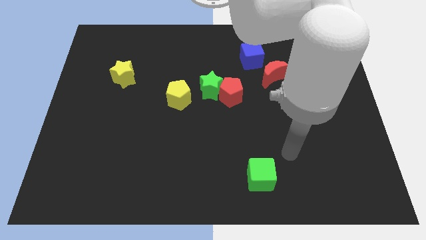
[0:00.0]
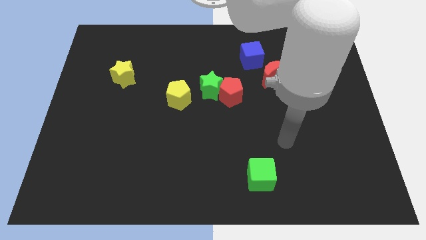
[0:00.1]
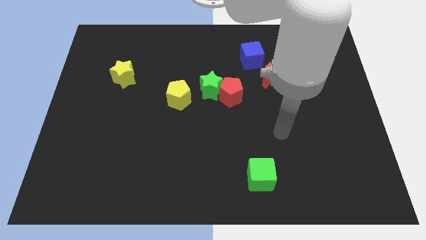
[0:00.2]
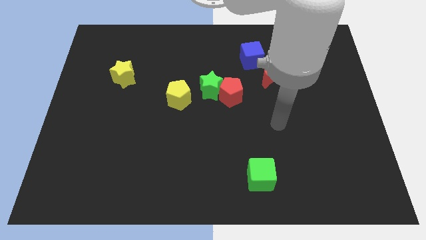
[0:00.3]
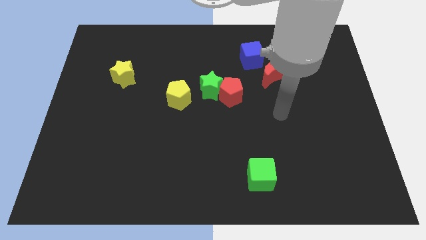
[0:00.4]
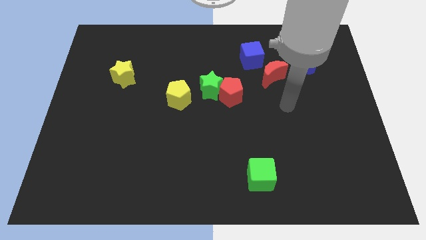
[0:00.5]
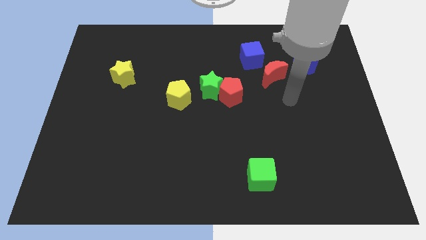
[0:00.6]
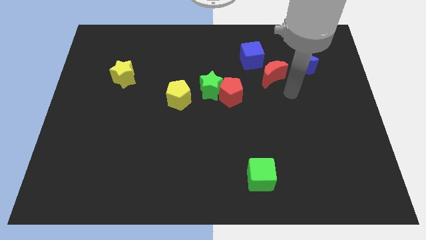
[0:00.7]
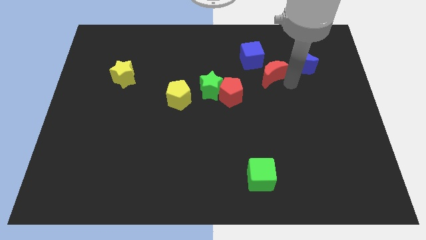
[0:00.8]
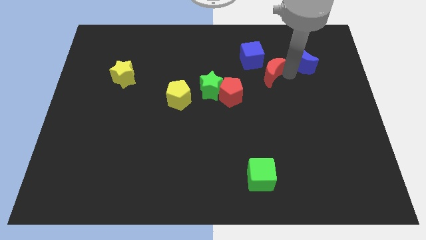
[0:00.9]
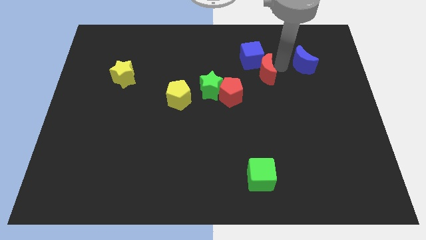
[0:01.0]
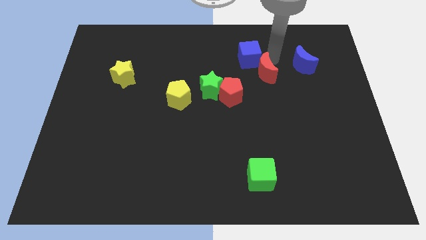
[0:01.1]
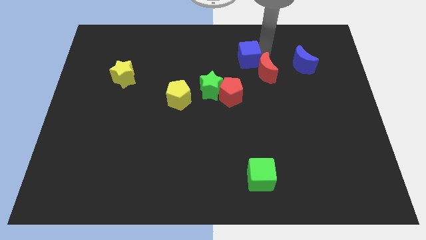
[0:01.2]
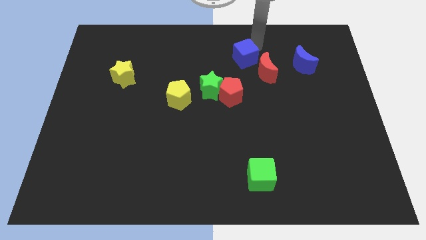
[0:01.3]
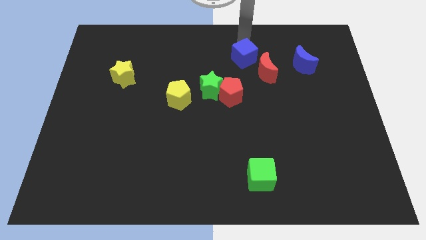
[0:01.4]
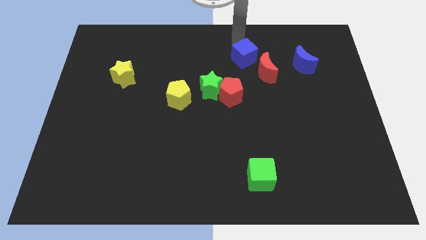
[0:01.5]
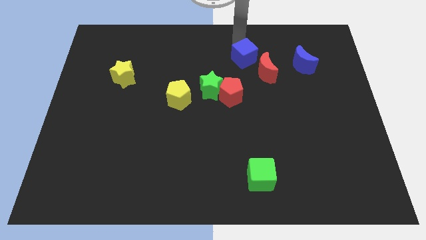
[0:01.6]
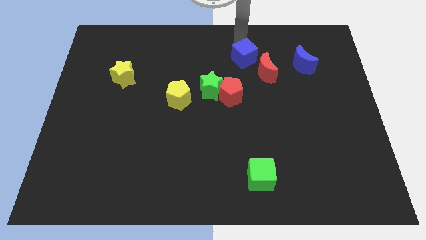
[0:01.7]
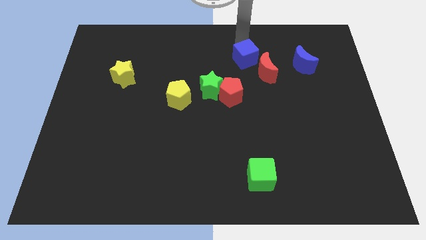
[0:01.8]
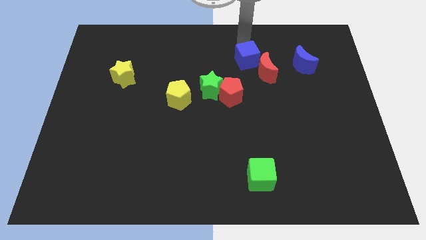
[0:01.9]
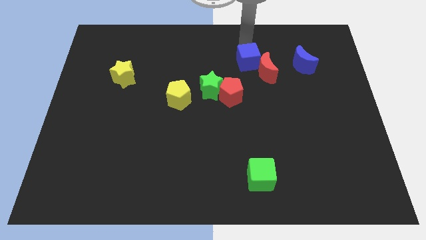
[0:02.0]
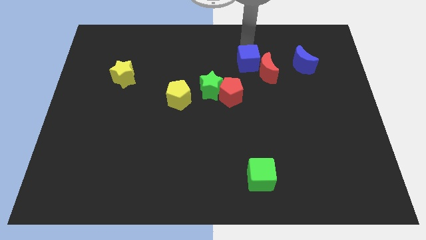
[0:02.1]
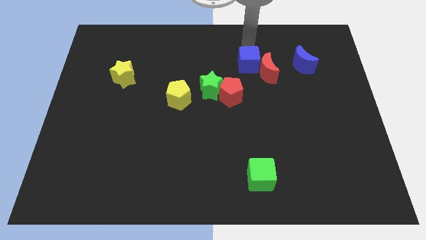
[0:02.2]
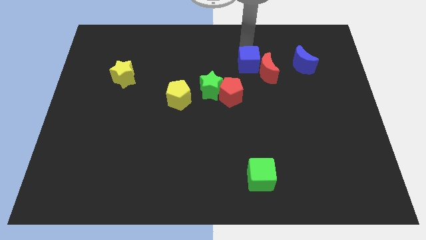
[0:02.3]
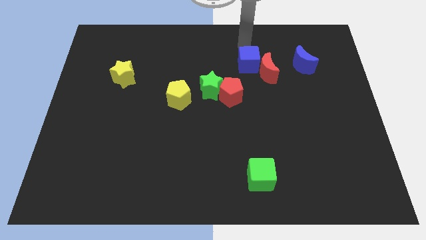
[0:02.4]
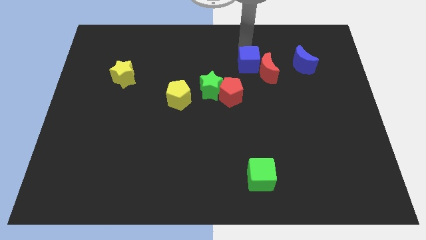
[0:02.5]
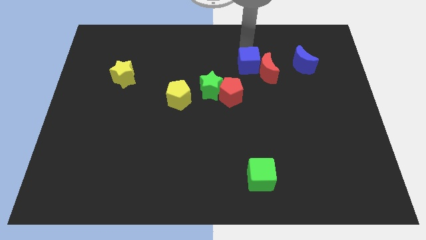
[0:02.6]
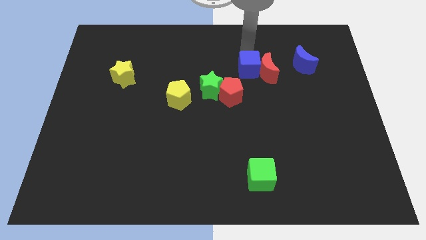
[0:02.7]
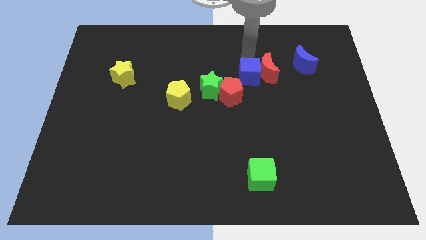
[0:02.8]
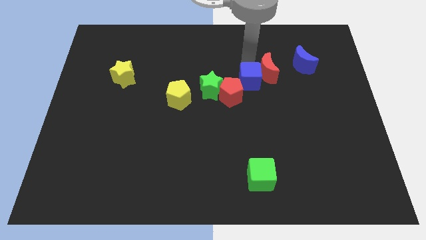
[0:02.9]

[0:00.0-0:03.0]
slightly push the blue cube down

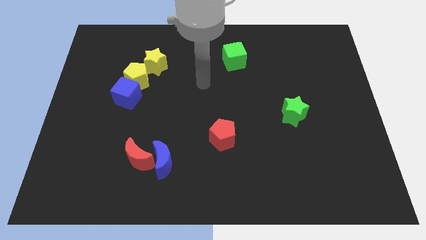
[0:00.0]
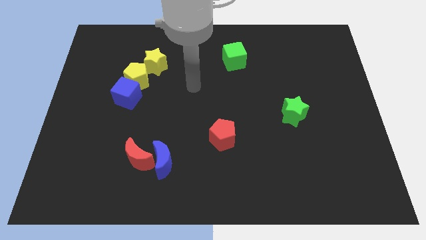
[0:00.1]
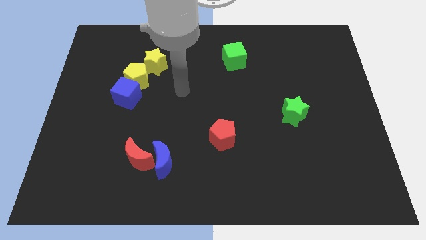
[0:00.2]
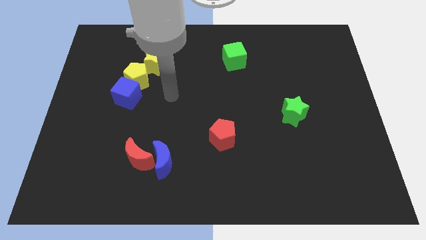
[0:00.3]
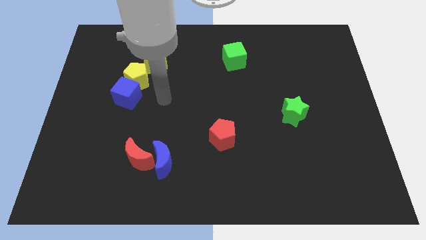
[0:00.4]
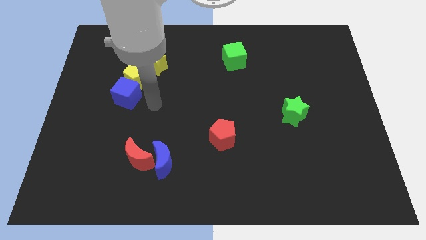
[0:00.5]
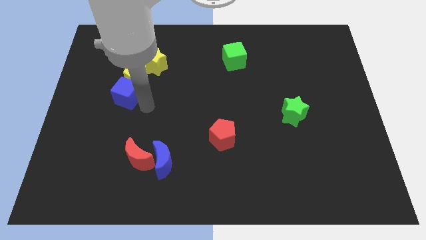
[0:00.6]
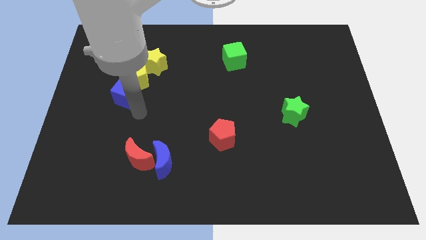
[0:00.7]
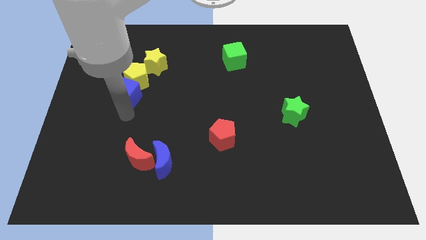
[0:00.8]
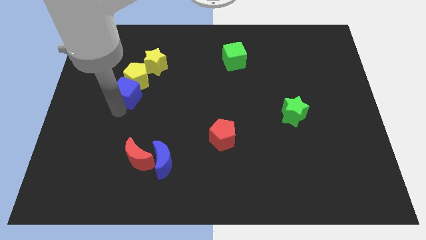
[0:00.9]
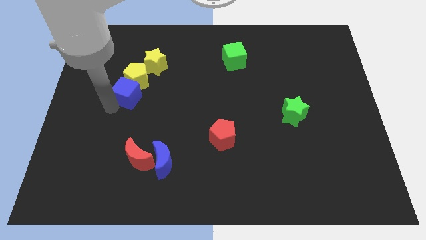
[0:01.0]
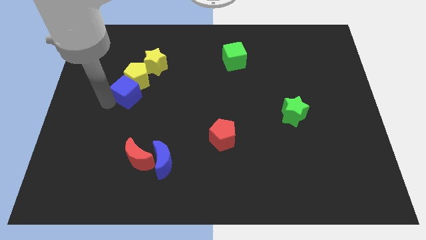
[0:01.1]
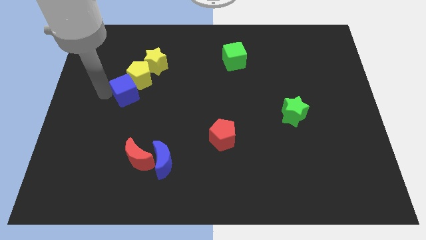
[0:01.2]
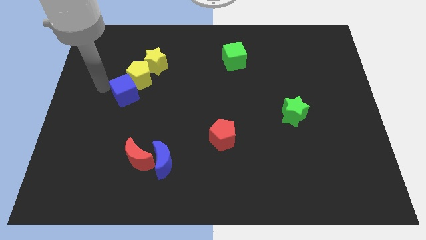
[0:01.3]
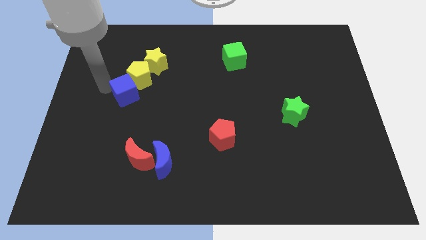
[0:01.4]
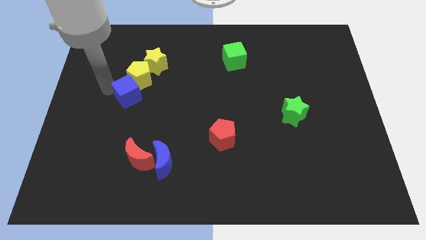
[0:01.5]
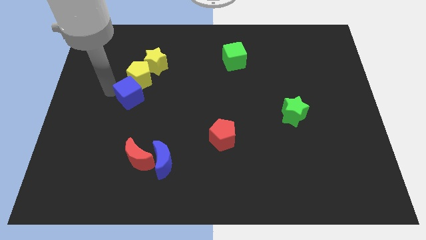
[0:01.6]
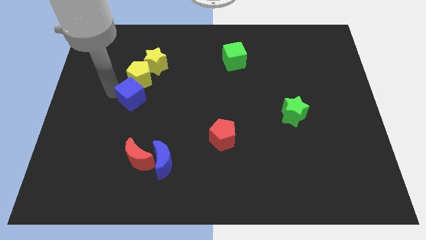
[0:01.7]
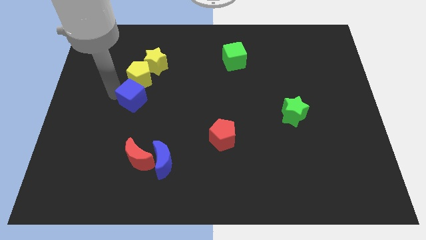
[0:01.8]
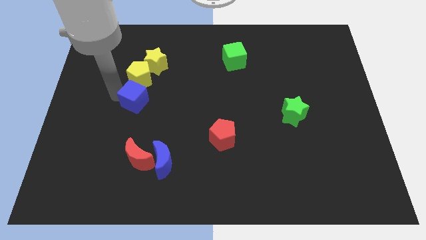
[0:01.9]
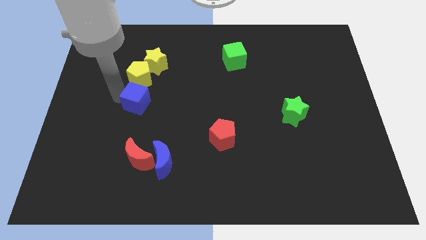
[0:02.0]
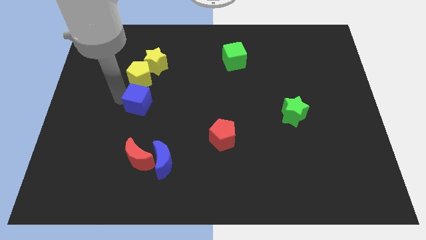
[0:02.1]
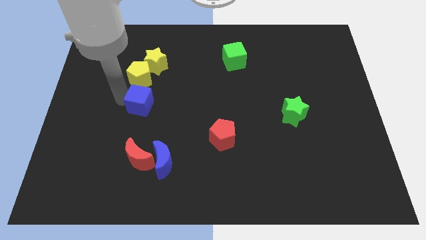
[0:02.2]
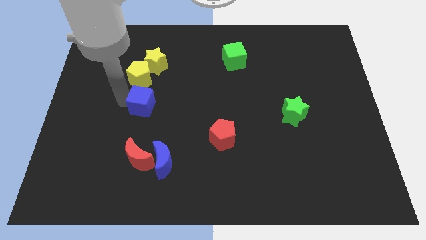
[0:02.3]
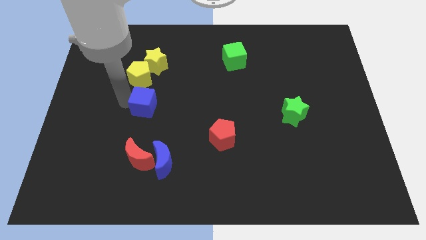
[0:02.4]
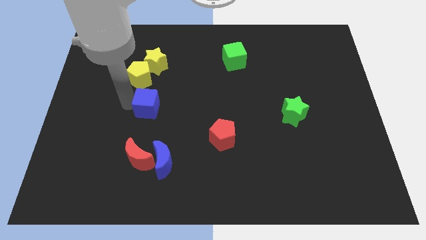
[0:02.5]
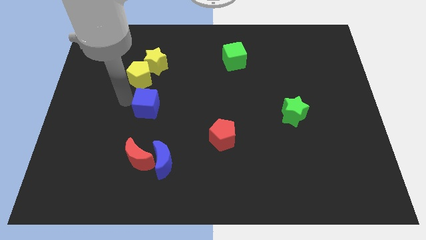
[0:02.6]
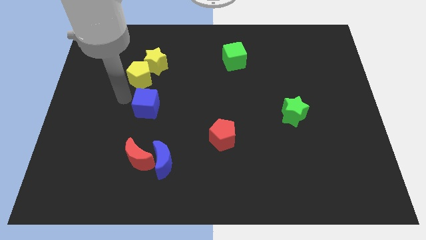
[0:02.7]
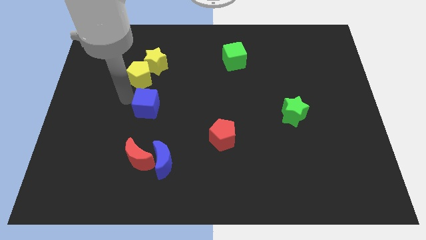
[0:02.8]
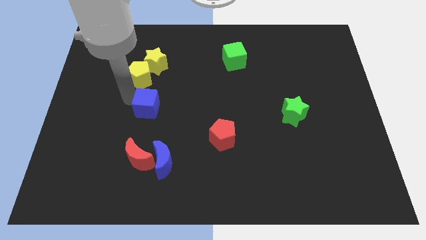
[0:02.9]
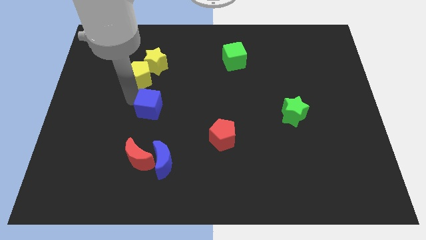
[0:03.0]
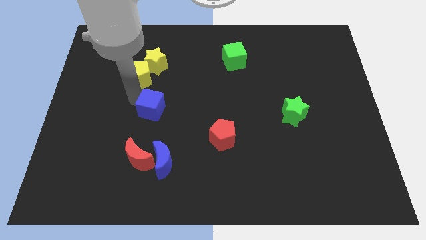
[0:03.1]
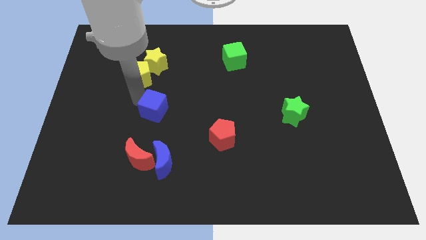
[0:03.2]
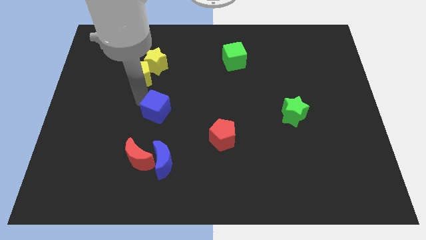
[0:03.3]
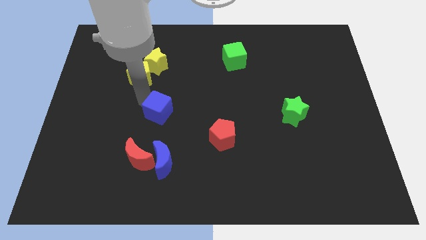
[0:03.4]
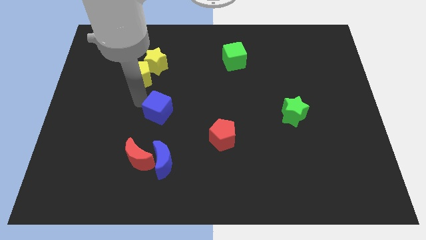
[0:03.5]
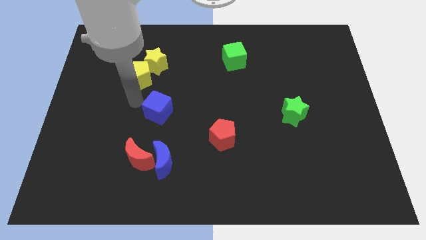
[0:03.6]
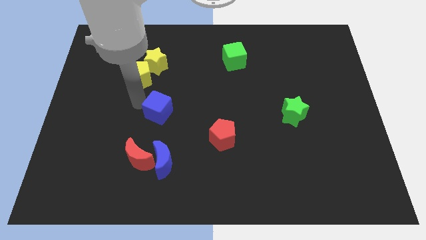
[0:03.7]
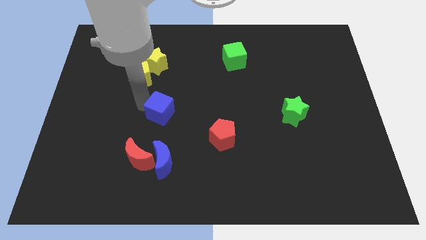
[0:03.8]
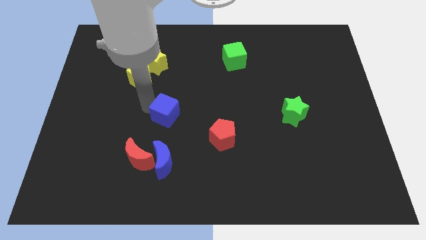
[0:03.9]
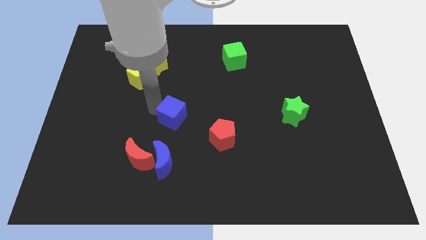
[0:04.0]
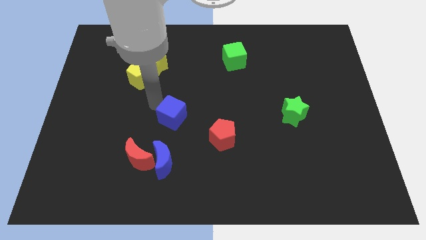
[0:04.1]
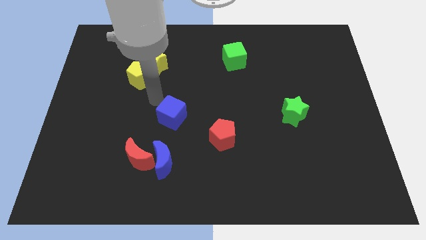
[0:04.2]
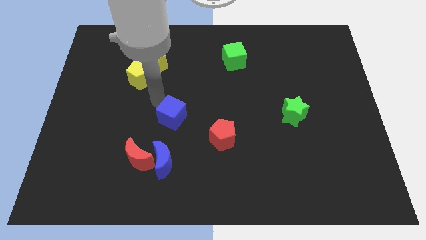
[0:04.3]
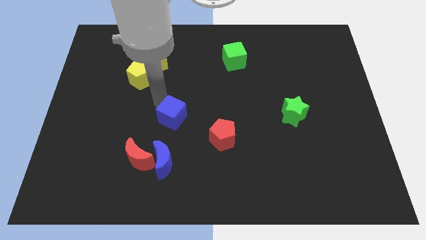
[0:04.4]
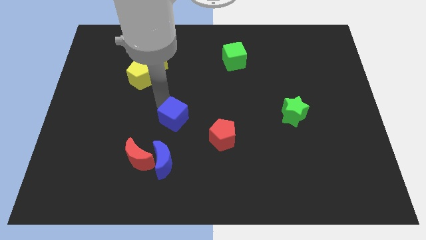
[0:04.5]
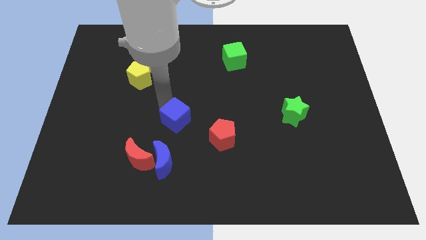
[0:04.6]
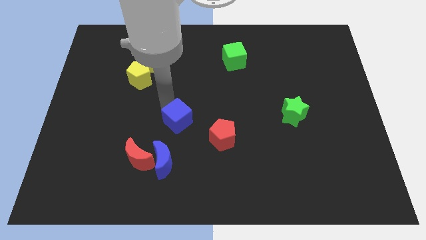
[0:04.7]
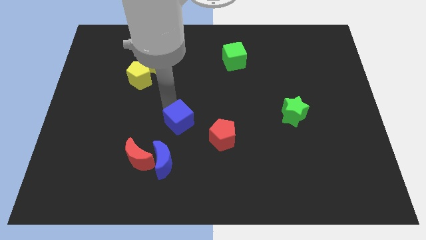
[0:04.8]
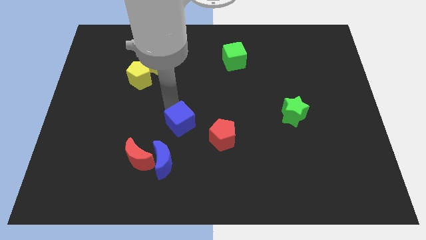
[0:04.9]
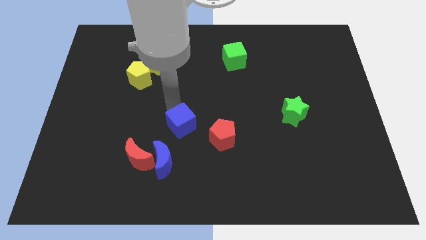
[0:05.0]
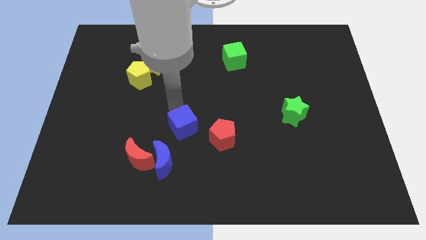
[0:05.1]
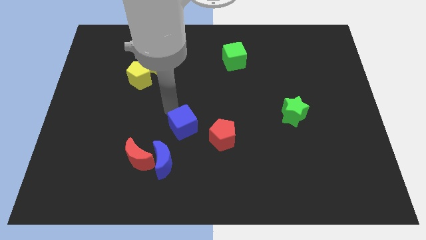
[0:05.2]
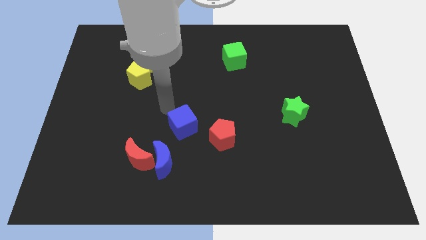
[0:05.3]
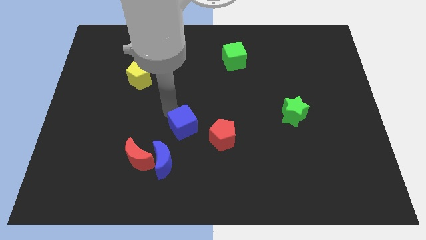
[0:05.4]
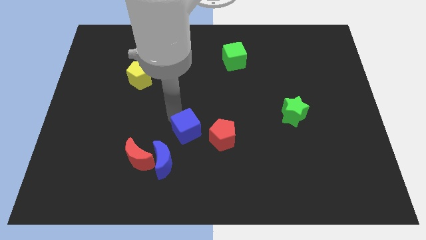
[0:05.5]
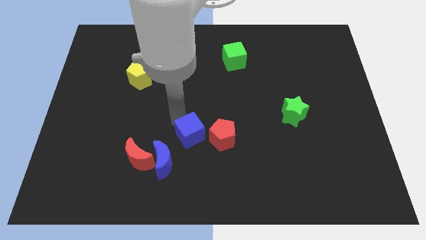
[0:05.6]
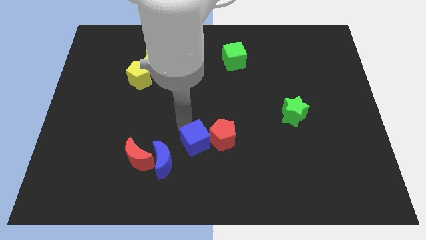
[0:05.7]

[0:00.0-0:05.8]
push the blue cube down and right diagonally
